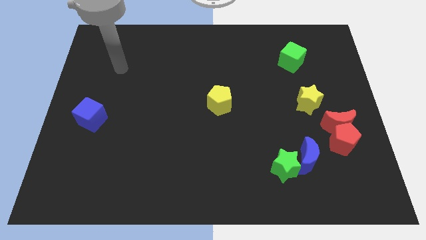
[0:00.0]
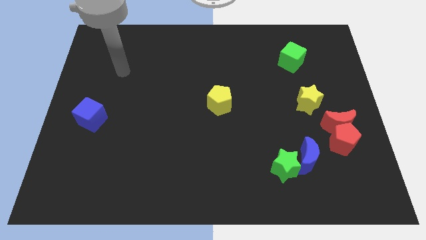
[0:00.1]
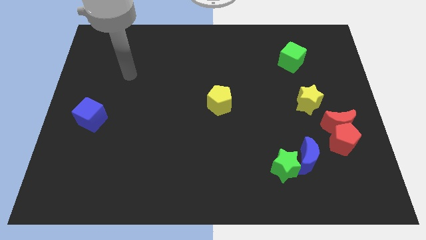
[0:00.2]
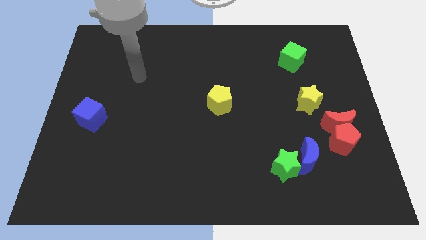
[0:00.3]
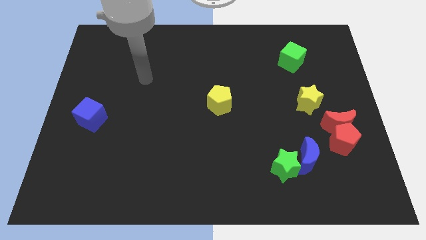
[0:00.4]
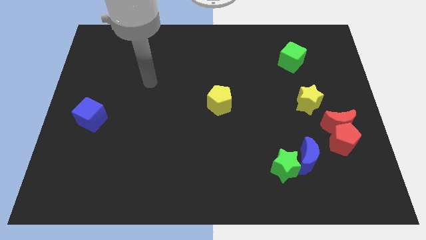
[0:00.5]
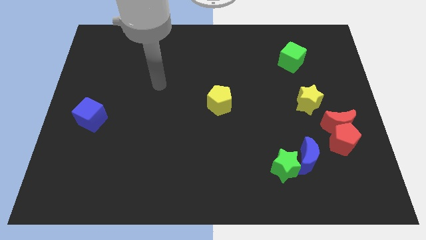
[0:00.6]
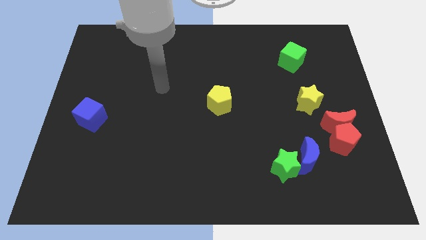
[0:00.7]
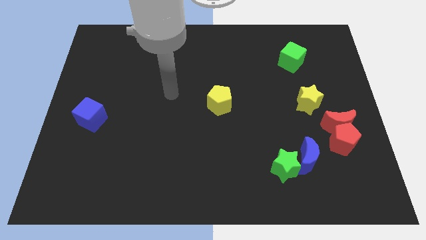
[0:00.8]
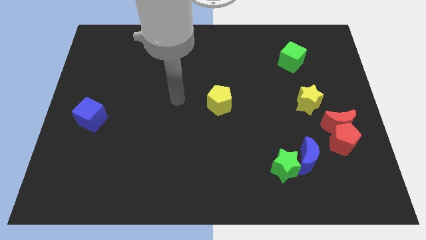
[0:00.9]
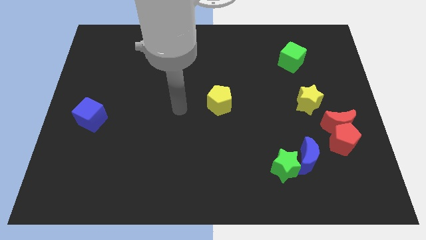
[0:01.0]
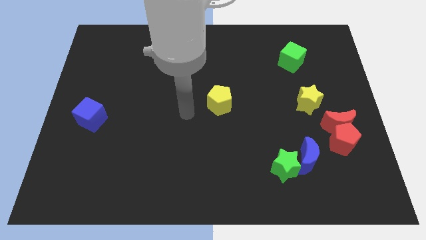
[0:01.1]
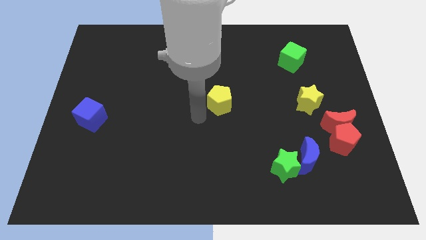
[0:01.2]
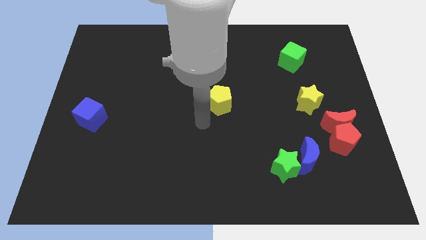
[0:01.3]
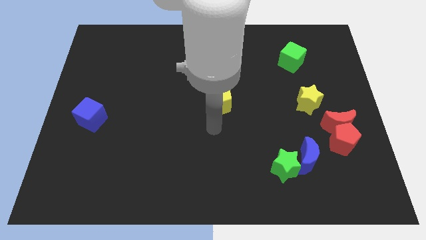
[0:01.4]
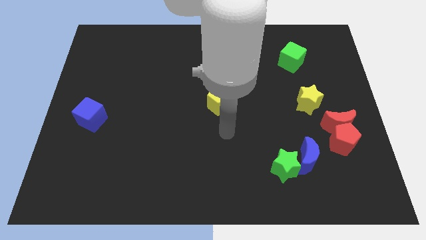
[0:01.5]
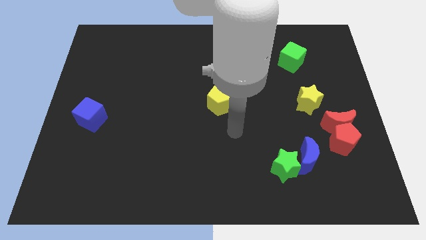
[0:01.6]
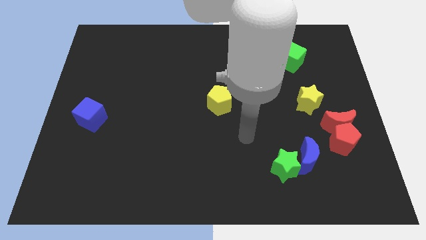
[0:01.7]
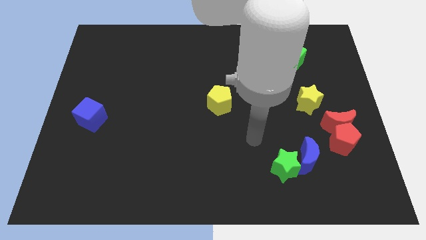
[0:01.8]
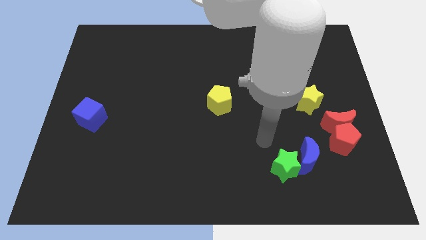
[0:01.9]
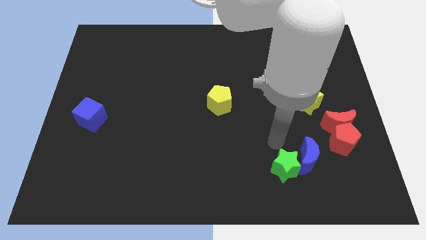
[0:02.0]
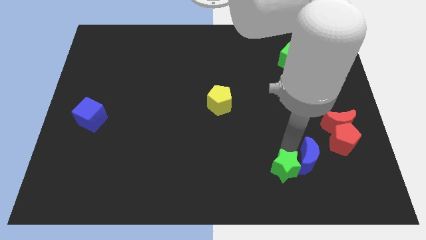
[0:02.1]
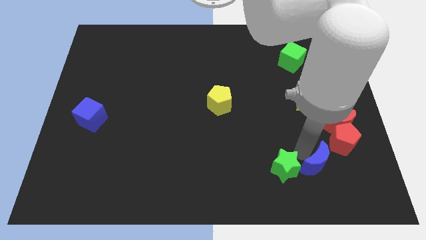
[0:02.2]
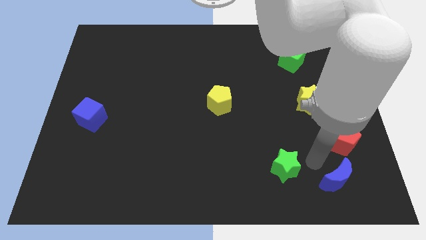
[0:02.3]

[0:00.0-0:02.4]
move the green star away from the blue moon

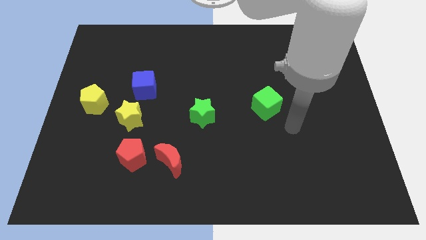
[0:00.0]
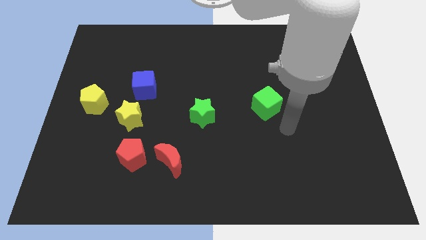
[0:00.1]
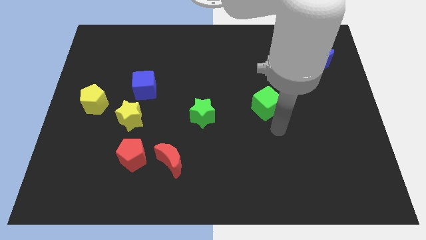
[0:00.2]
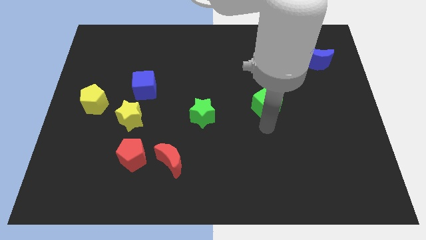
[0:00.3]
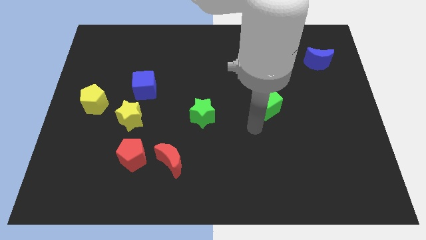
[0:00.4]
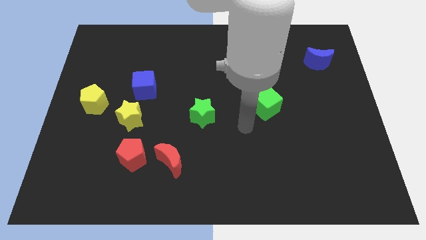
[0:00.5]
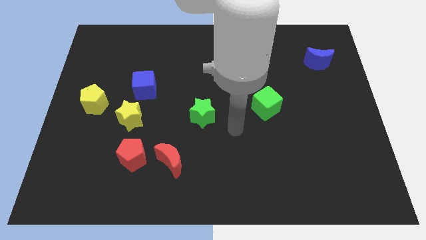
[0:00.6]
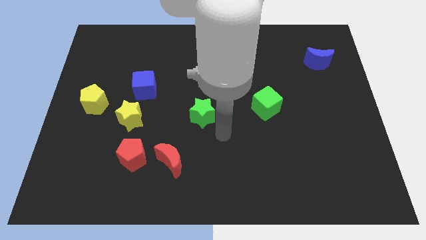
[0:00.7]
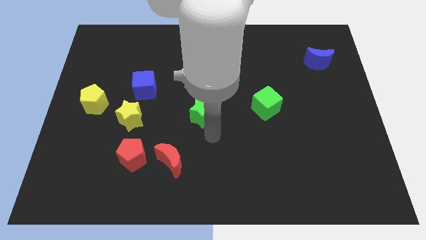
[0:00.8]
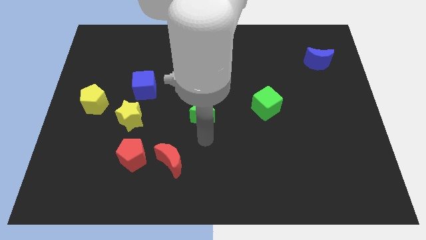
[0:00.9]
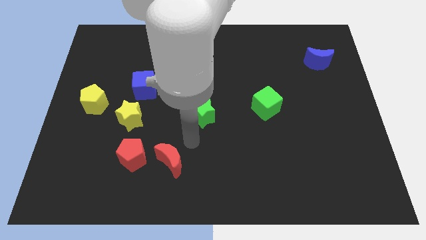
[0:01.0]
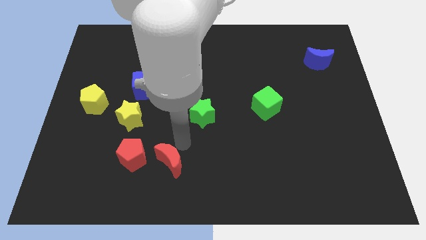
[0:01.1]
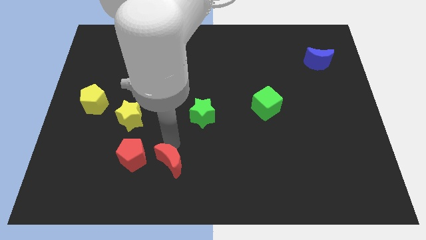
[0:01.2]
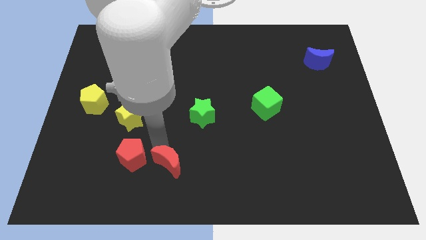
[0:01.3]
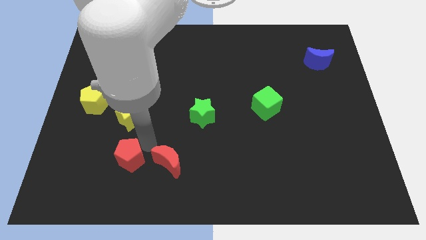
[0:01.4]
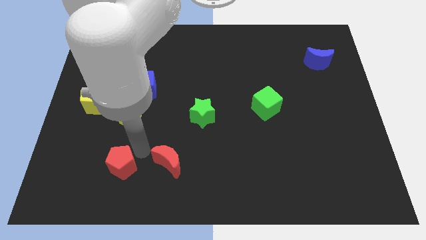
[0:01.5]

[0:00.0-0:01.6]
pull the red moon apart from the red pentagon

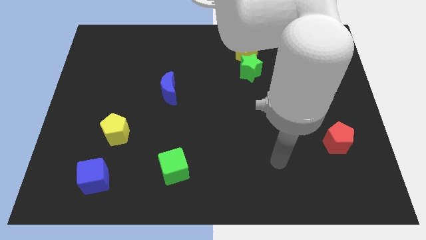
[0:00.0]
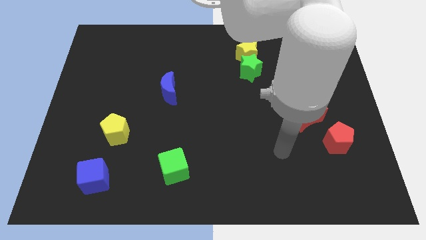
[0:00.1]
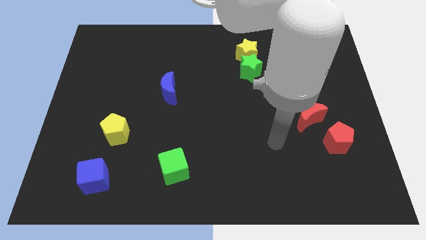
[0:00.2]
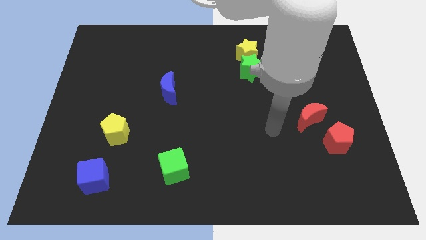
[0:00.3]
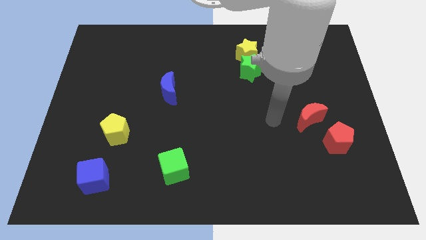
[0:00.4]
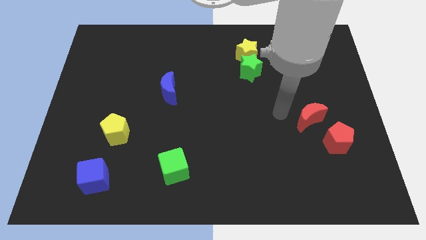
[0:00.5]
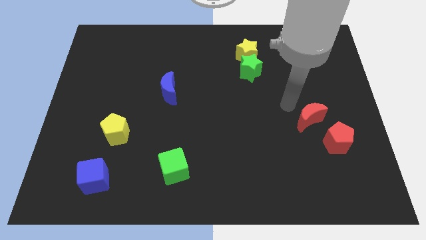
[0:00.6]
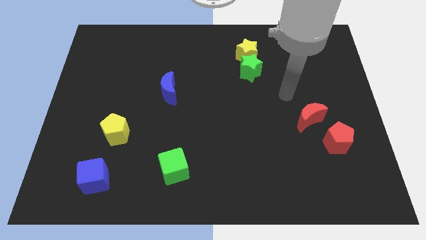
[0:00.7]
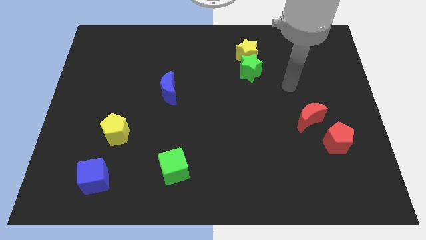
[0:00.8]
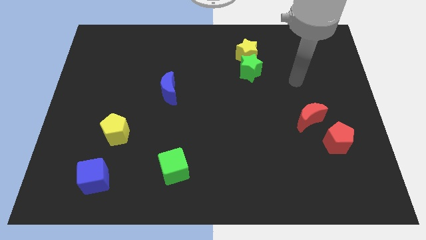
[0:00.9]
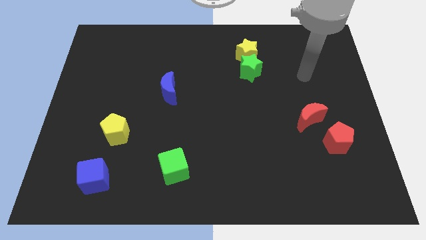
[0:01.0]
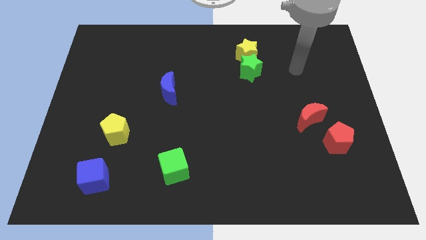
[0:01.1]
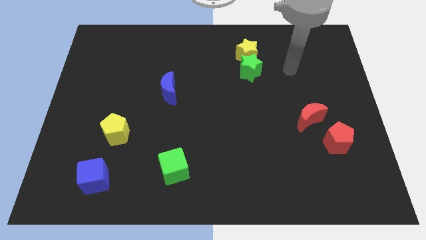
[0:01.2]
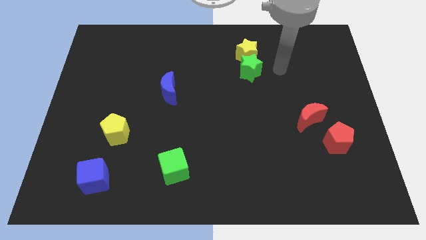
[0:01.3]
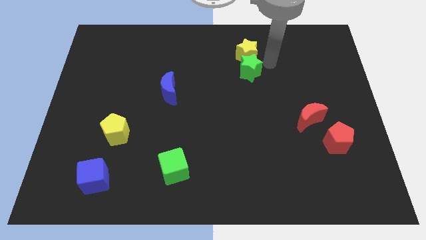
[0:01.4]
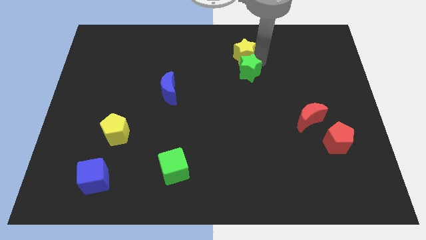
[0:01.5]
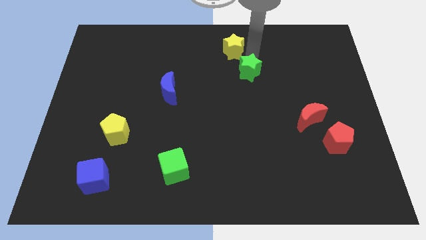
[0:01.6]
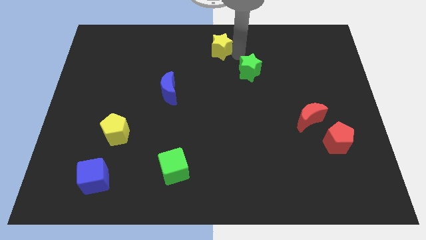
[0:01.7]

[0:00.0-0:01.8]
separate the green star from the yellow star

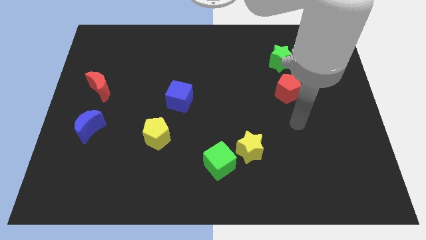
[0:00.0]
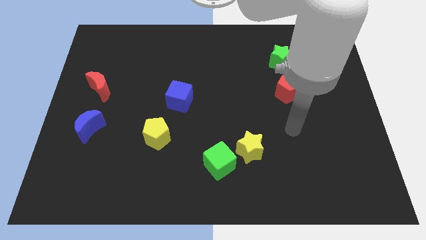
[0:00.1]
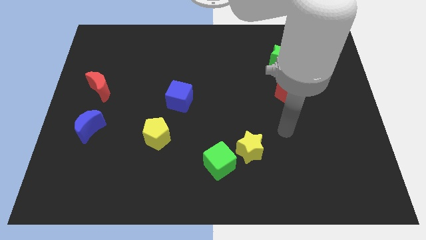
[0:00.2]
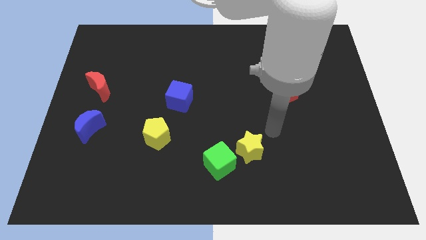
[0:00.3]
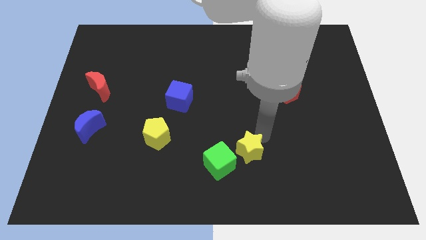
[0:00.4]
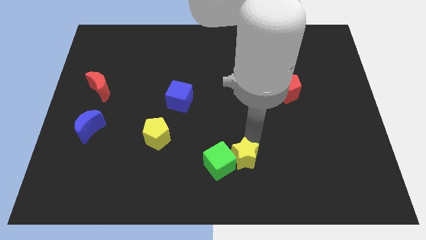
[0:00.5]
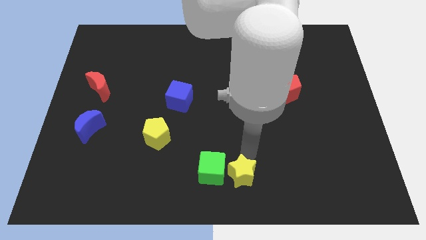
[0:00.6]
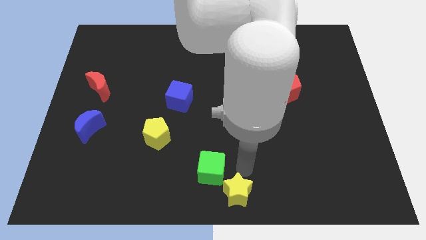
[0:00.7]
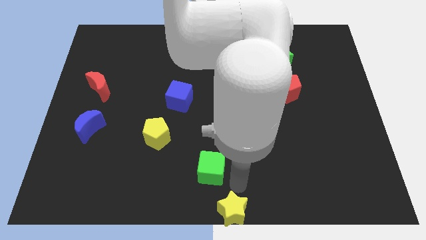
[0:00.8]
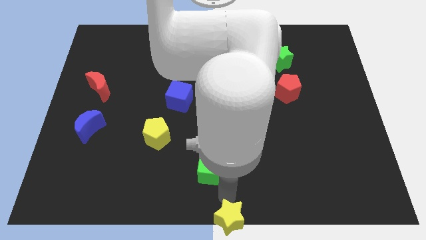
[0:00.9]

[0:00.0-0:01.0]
pull the green cube apart from the yellow star

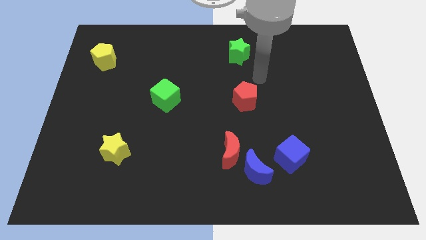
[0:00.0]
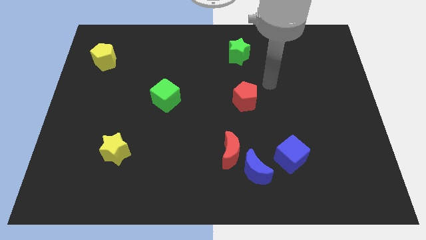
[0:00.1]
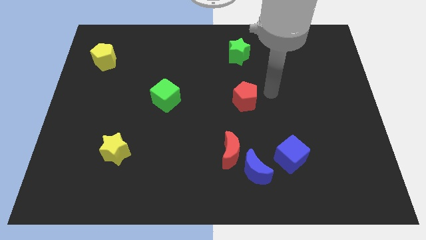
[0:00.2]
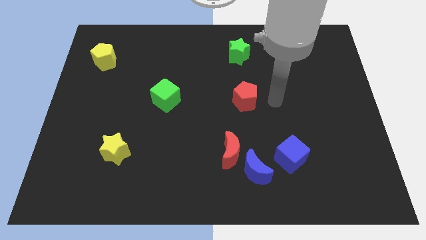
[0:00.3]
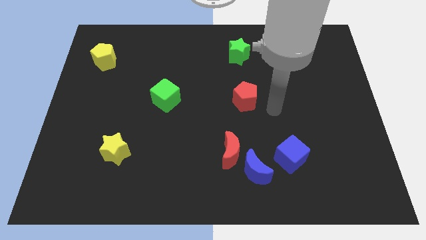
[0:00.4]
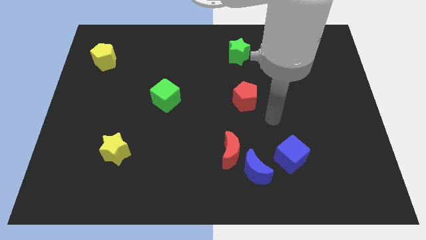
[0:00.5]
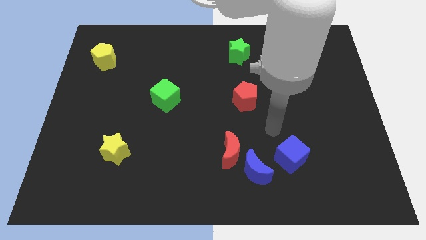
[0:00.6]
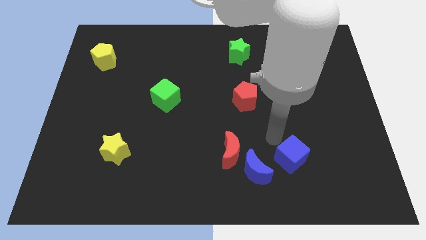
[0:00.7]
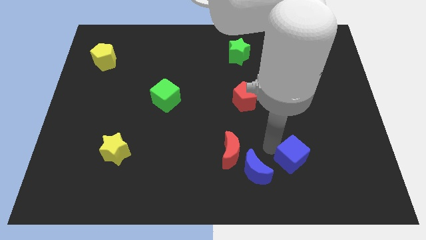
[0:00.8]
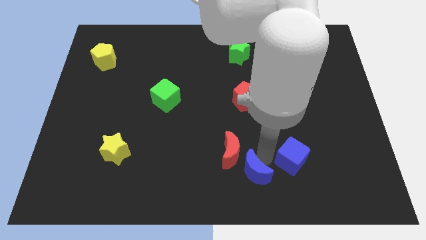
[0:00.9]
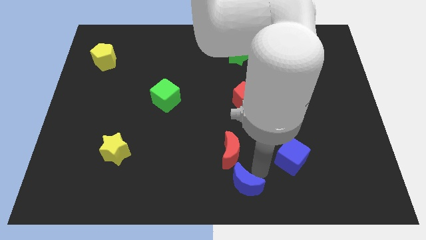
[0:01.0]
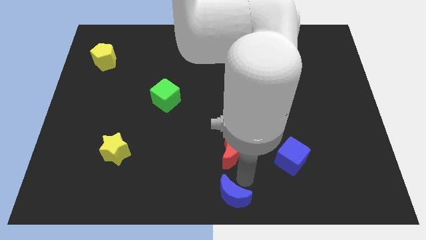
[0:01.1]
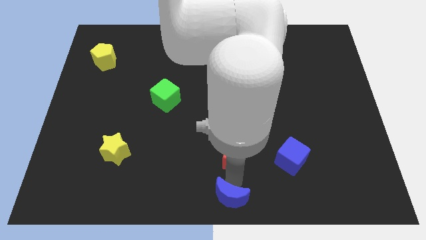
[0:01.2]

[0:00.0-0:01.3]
move the red moon away from the blue moon

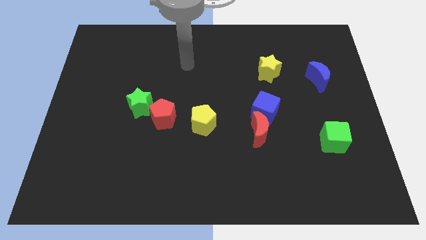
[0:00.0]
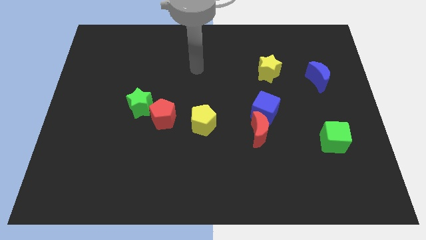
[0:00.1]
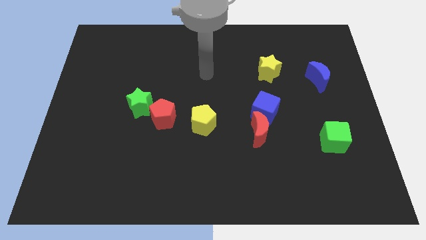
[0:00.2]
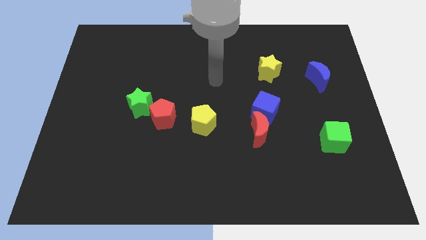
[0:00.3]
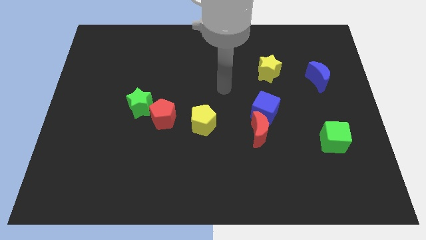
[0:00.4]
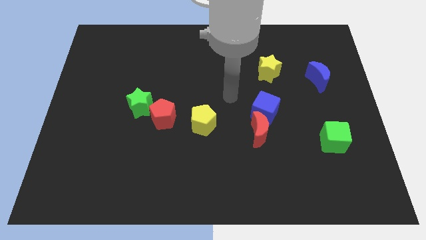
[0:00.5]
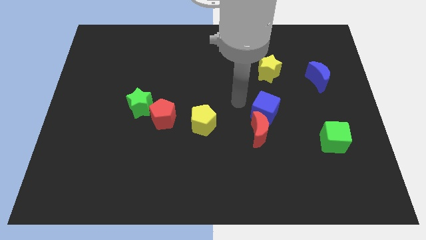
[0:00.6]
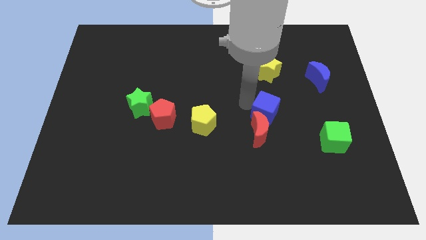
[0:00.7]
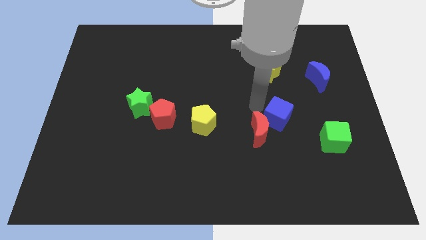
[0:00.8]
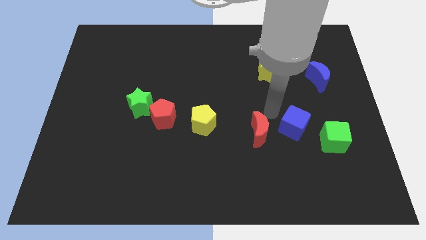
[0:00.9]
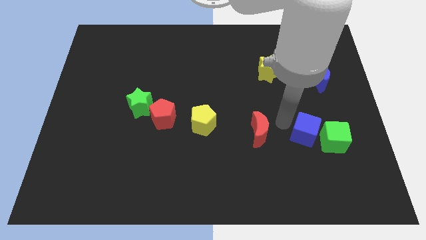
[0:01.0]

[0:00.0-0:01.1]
move the red moon away from the blue cube
